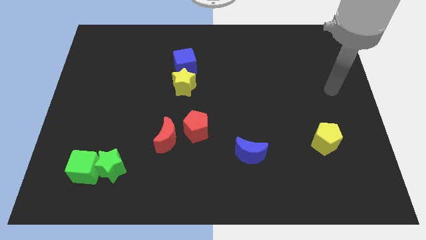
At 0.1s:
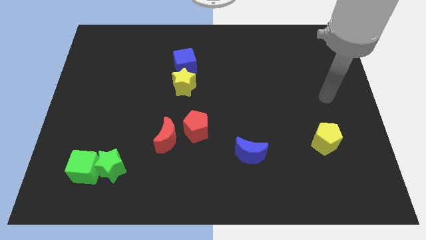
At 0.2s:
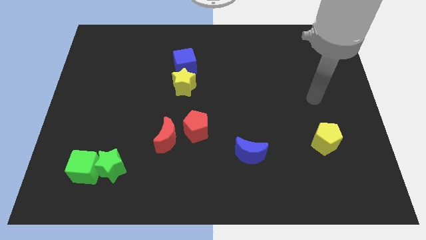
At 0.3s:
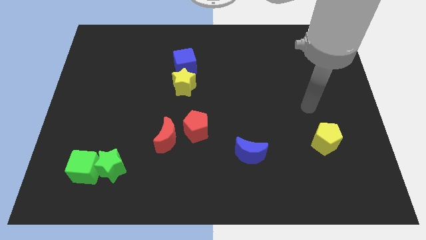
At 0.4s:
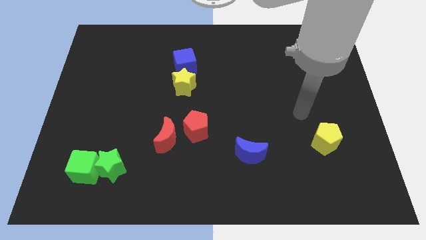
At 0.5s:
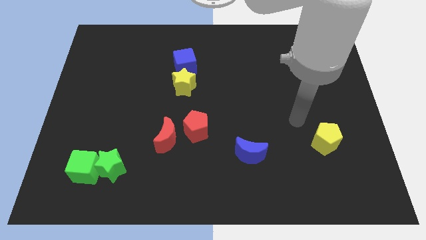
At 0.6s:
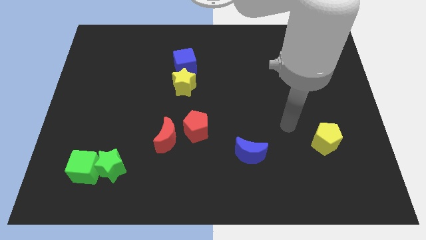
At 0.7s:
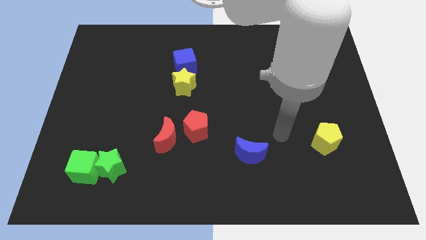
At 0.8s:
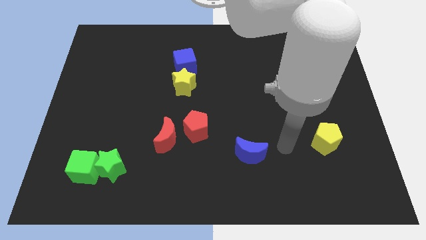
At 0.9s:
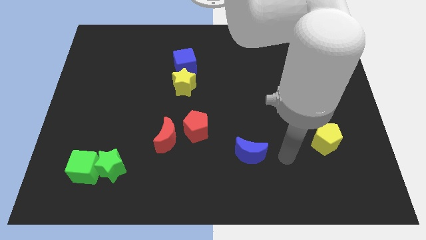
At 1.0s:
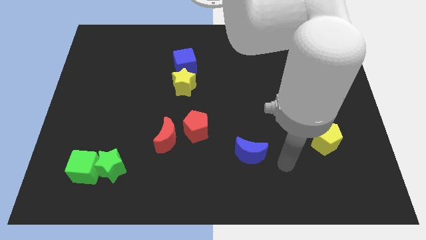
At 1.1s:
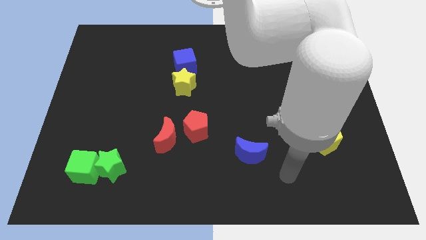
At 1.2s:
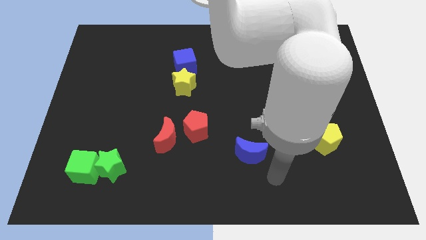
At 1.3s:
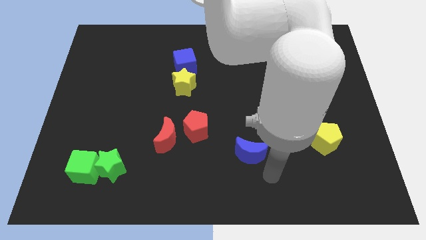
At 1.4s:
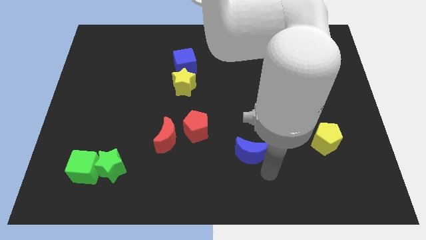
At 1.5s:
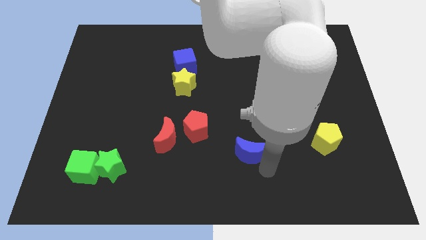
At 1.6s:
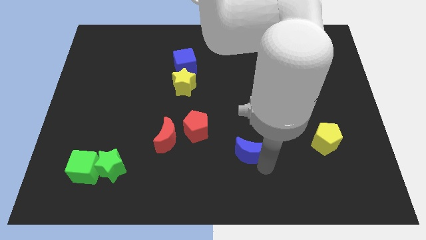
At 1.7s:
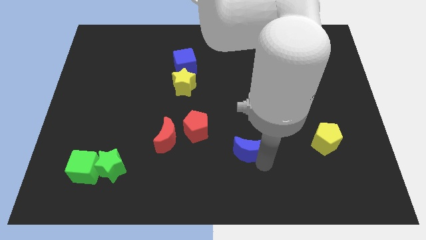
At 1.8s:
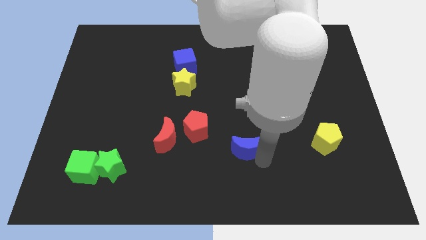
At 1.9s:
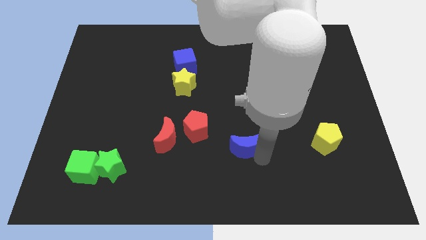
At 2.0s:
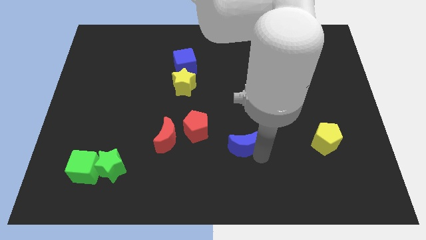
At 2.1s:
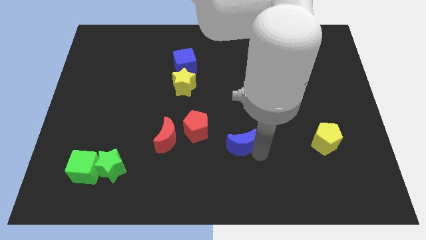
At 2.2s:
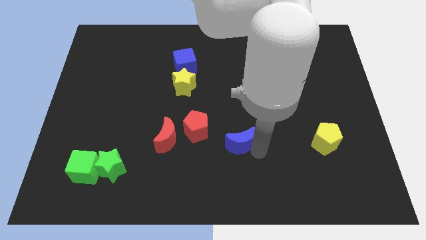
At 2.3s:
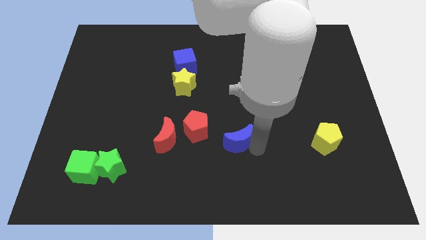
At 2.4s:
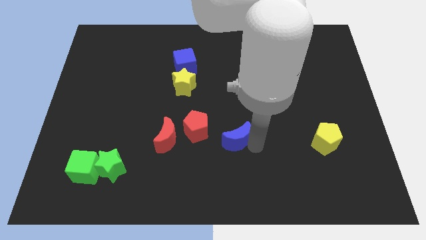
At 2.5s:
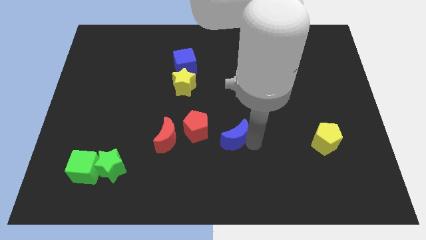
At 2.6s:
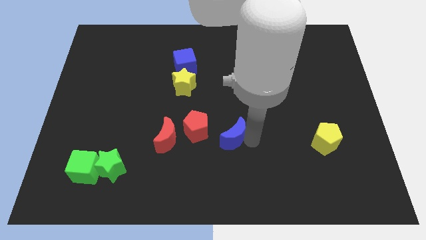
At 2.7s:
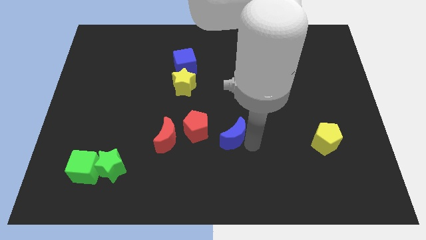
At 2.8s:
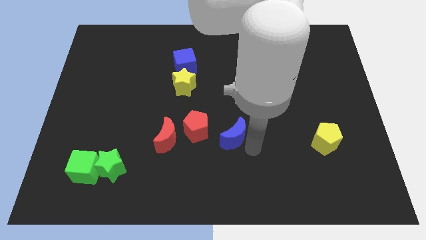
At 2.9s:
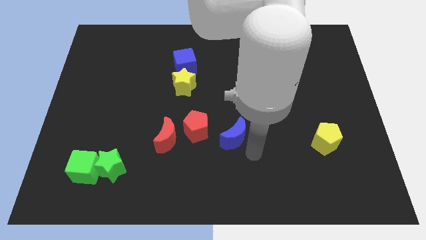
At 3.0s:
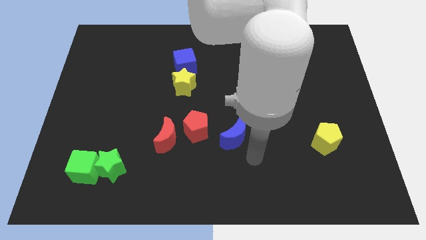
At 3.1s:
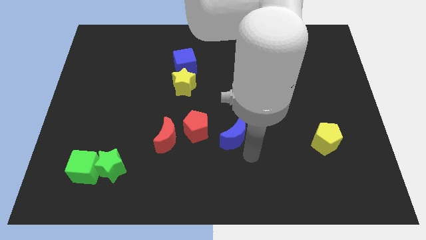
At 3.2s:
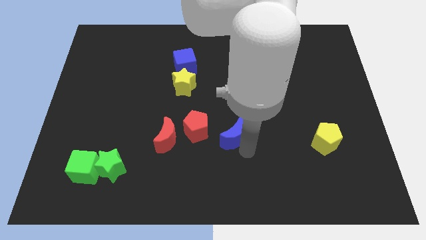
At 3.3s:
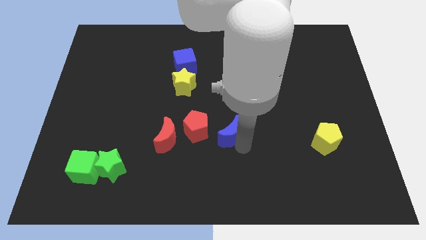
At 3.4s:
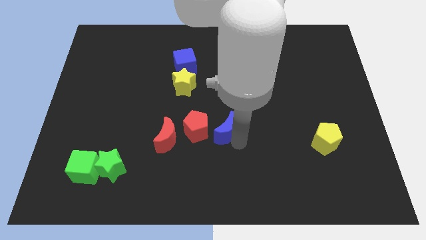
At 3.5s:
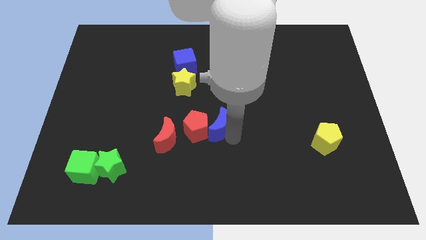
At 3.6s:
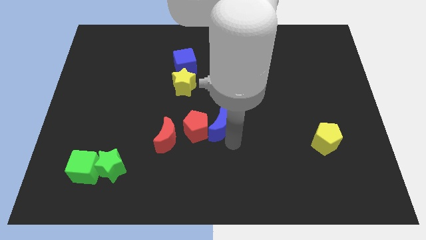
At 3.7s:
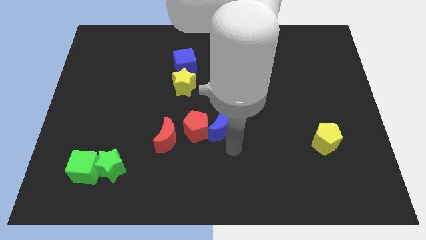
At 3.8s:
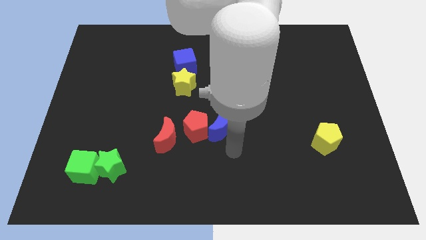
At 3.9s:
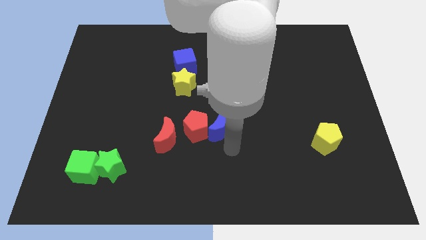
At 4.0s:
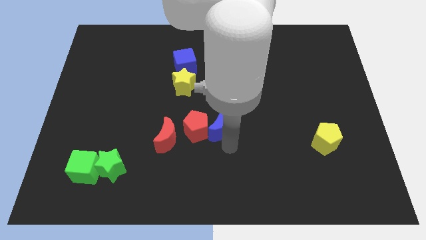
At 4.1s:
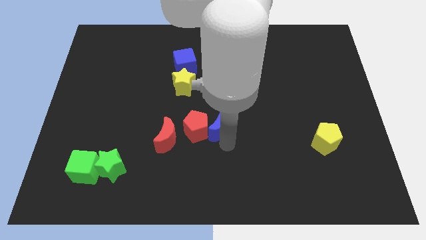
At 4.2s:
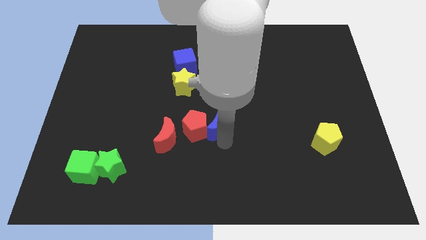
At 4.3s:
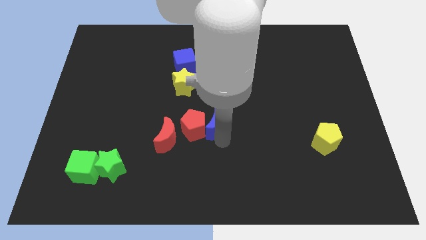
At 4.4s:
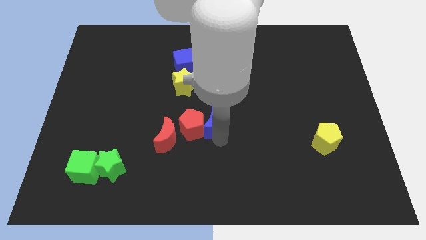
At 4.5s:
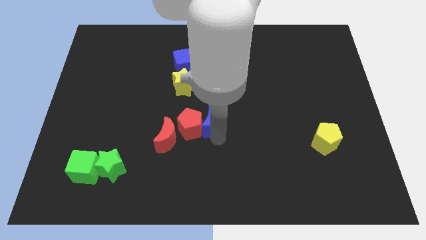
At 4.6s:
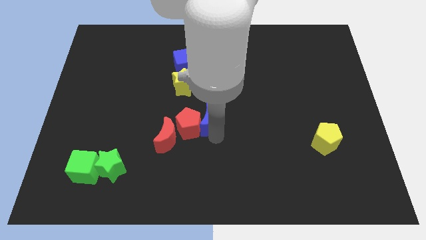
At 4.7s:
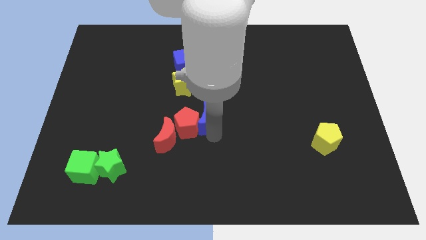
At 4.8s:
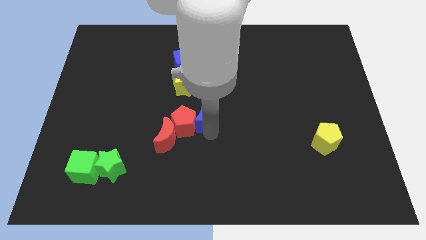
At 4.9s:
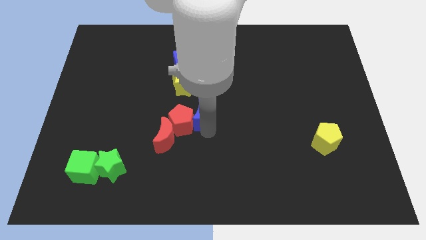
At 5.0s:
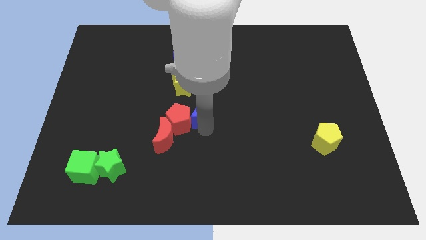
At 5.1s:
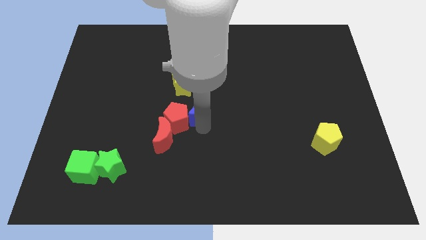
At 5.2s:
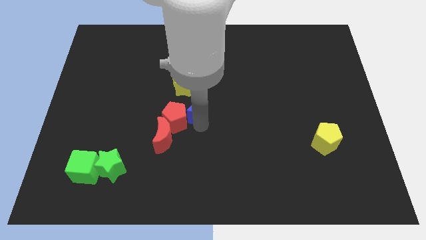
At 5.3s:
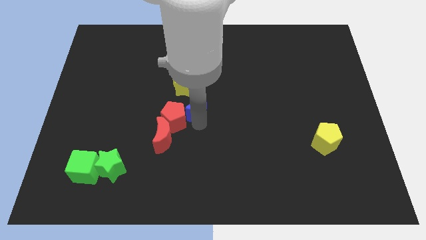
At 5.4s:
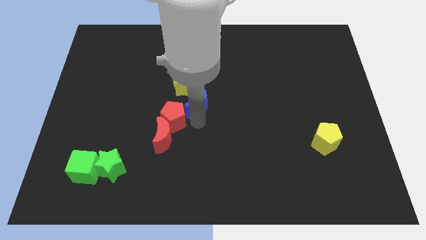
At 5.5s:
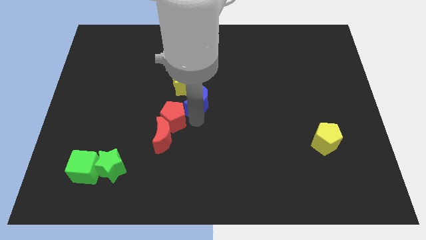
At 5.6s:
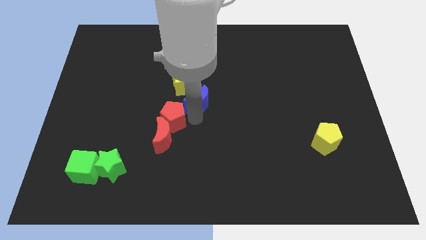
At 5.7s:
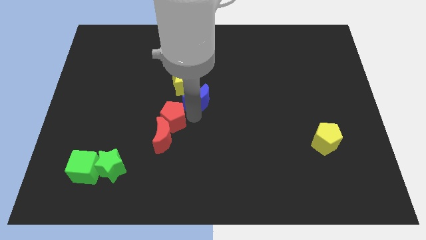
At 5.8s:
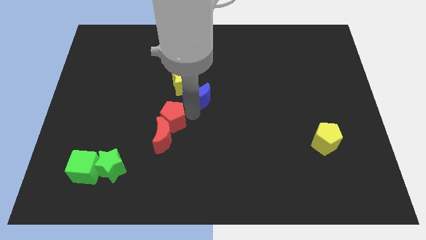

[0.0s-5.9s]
put the blue moon towards the yellow star

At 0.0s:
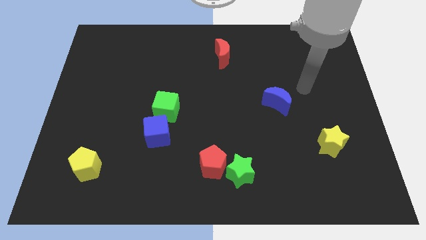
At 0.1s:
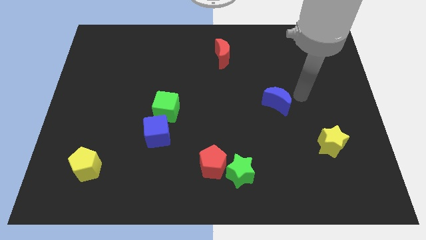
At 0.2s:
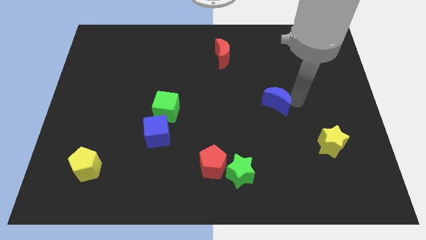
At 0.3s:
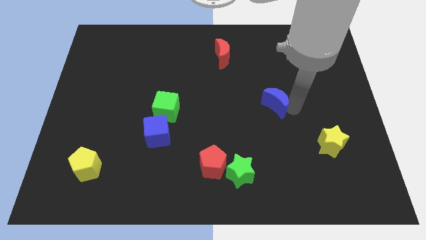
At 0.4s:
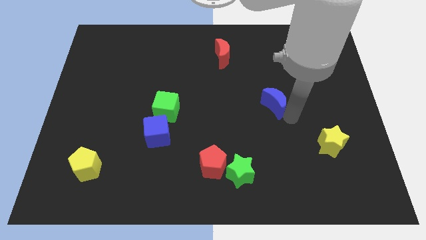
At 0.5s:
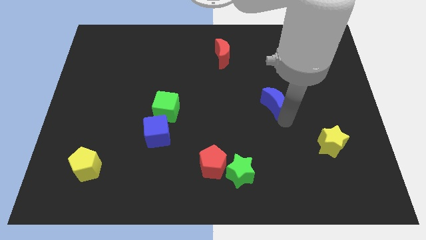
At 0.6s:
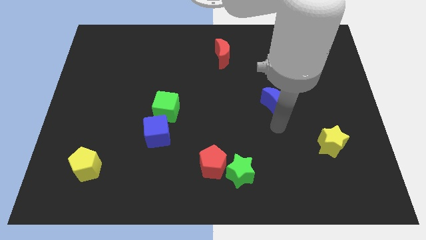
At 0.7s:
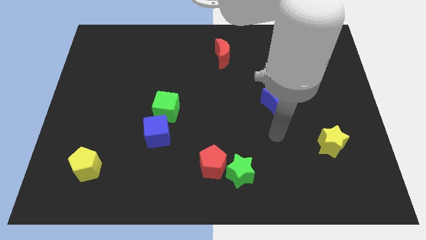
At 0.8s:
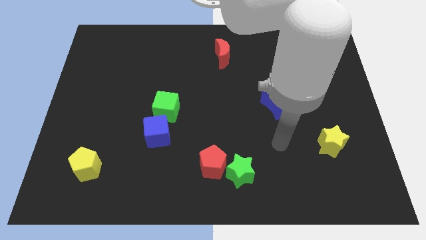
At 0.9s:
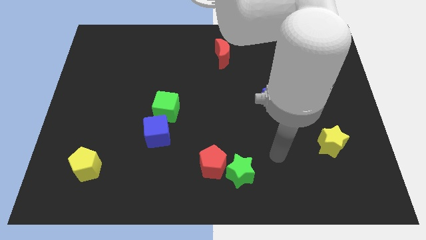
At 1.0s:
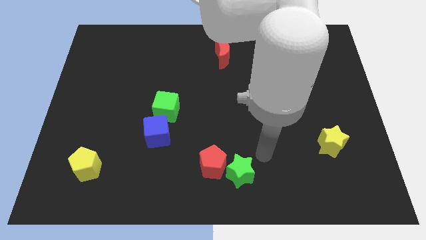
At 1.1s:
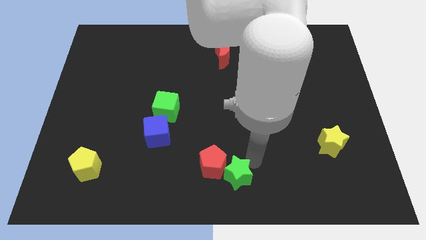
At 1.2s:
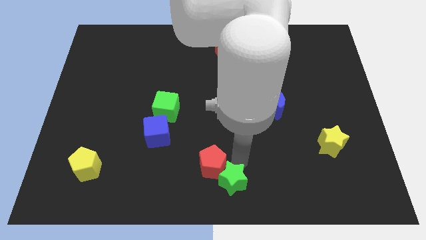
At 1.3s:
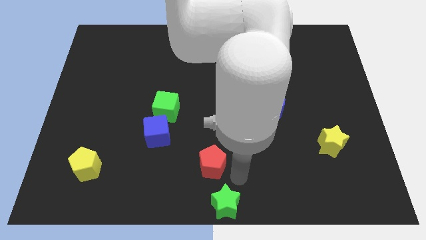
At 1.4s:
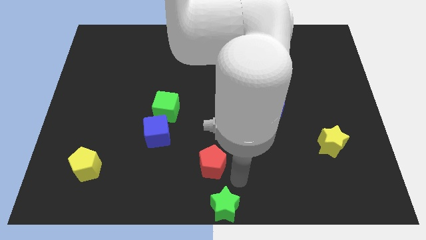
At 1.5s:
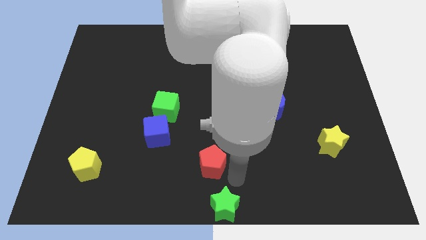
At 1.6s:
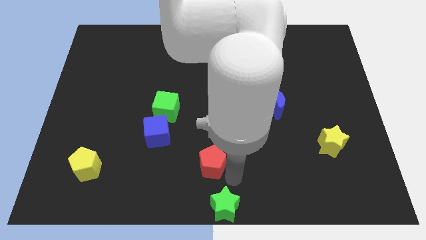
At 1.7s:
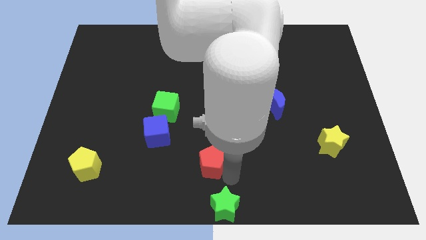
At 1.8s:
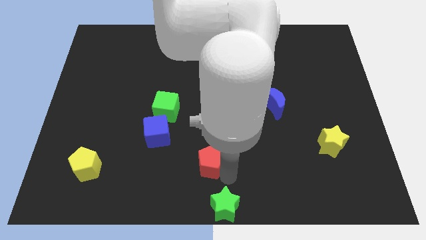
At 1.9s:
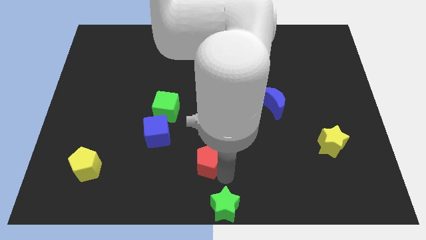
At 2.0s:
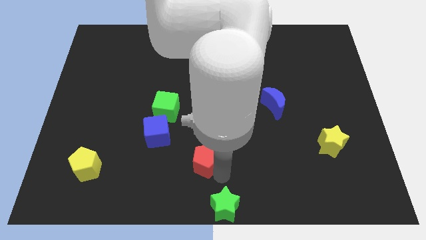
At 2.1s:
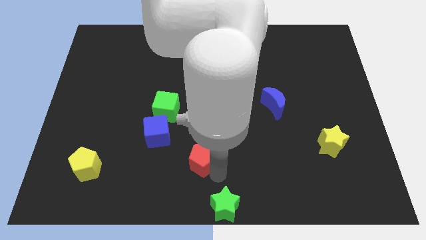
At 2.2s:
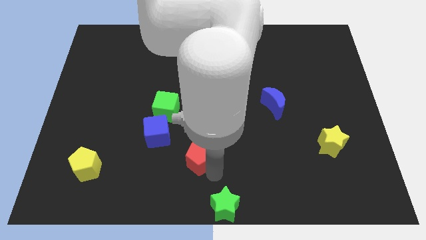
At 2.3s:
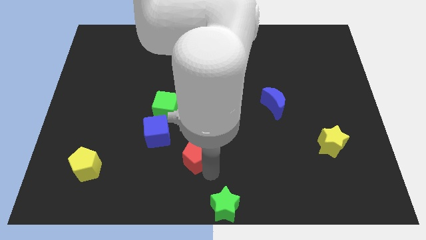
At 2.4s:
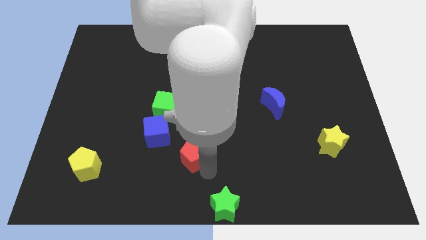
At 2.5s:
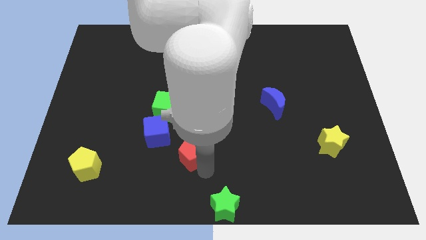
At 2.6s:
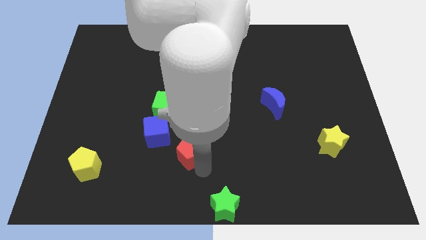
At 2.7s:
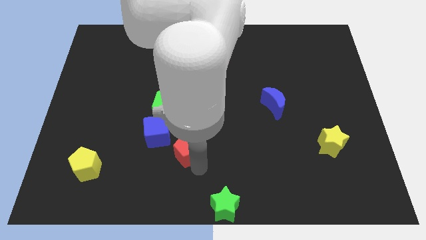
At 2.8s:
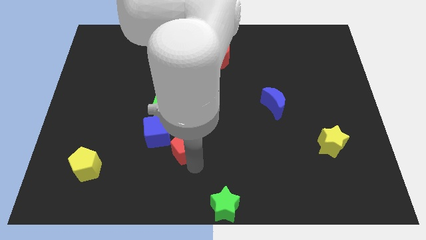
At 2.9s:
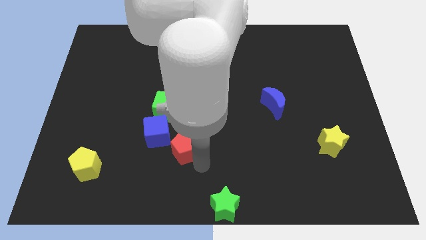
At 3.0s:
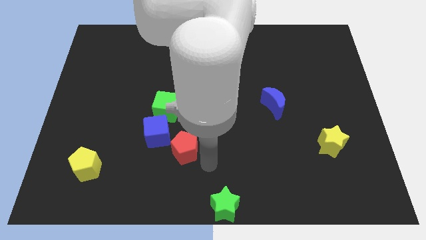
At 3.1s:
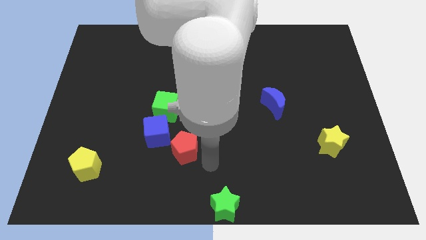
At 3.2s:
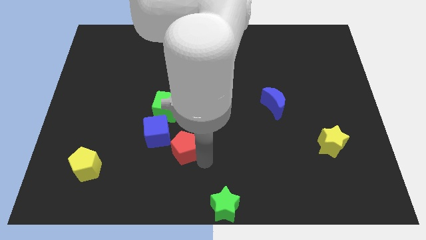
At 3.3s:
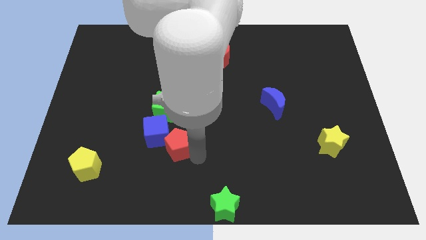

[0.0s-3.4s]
slide the red pentagon towards the blue cube
